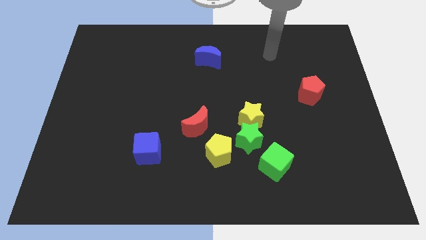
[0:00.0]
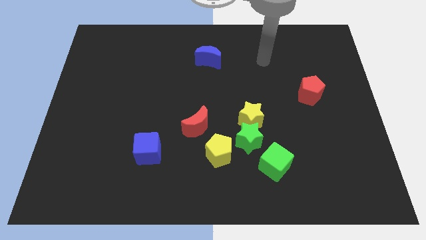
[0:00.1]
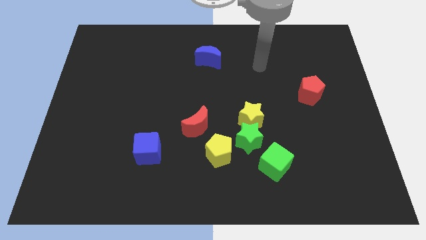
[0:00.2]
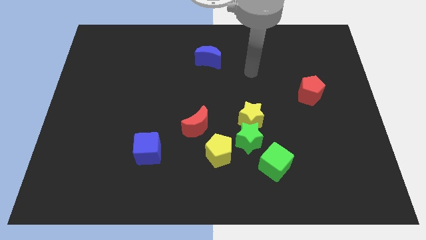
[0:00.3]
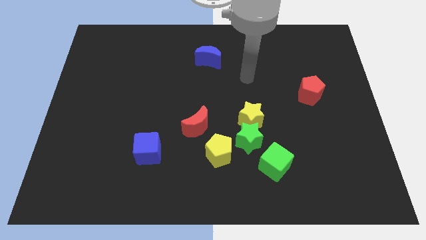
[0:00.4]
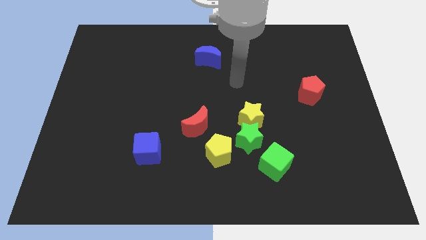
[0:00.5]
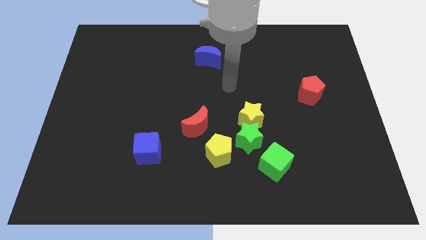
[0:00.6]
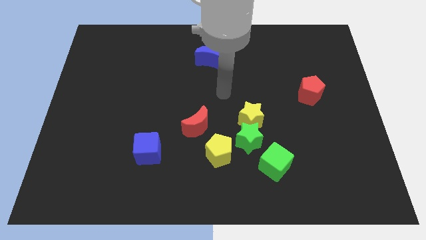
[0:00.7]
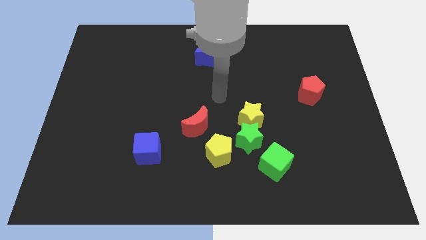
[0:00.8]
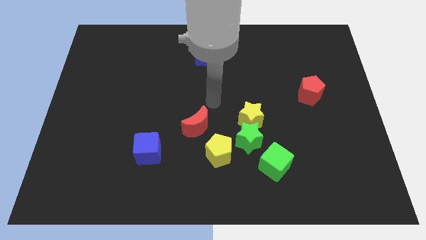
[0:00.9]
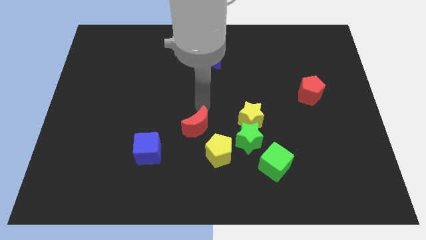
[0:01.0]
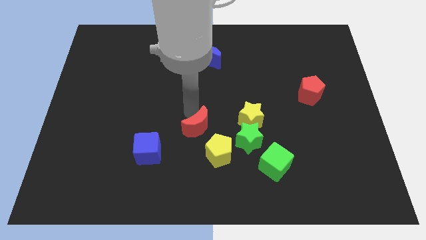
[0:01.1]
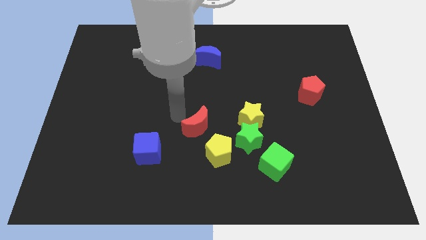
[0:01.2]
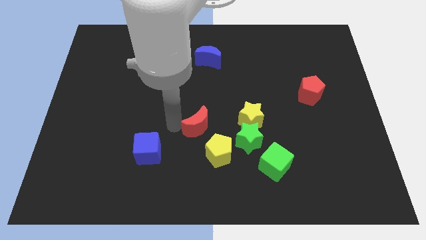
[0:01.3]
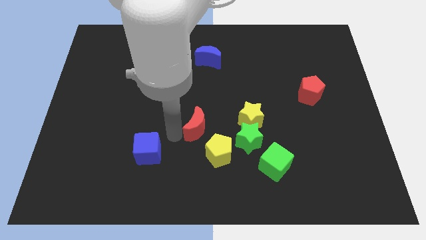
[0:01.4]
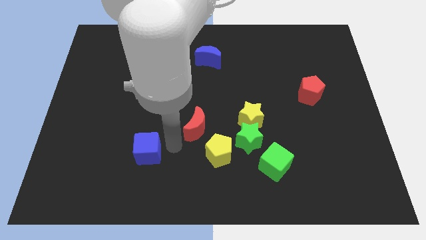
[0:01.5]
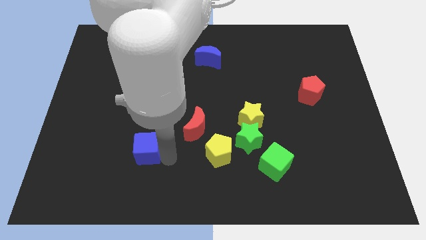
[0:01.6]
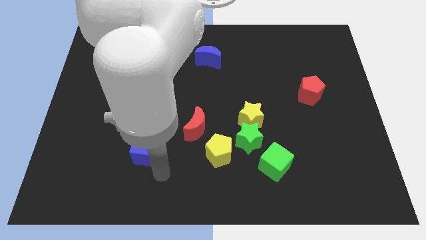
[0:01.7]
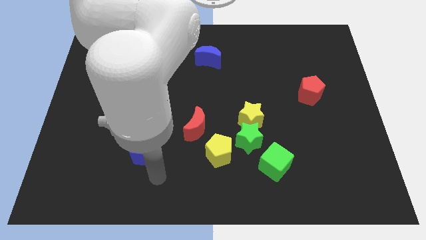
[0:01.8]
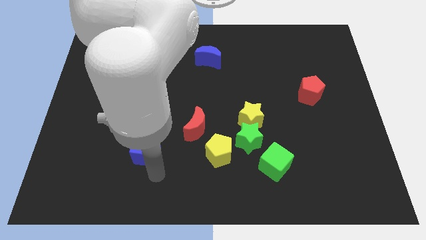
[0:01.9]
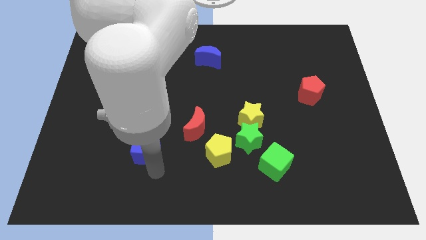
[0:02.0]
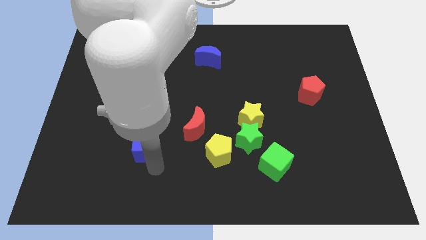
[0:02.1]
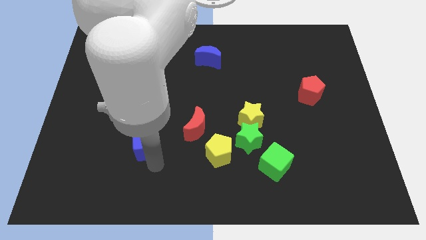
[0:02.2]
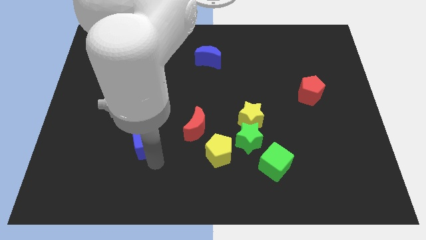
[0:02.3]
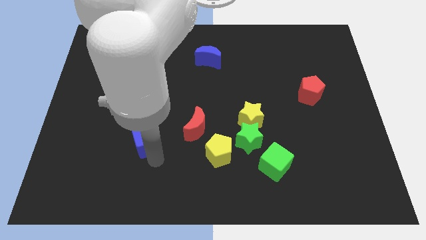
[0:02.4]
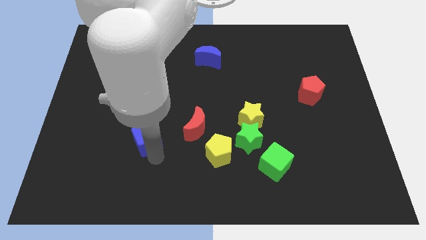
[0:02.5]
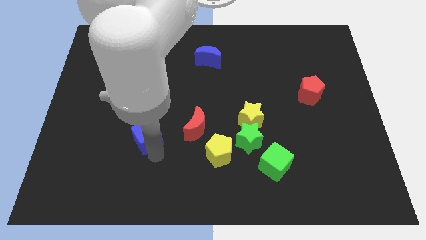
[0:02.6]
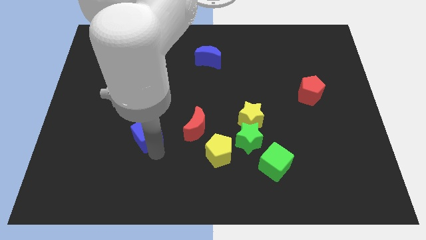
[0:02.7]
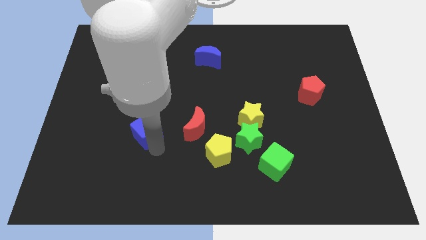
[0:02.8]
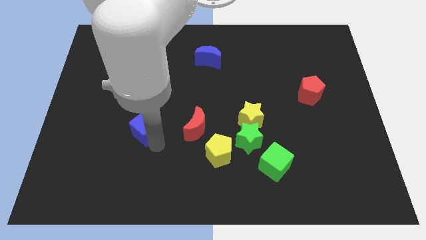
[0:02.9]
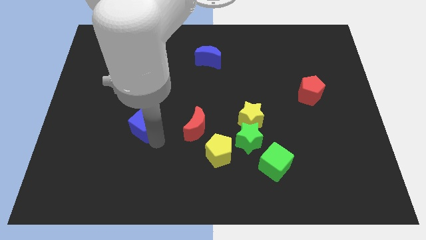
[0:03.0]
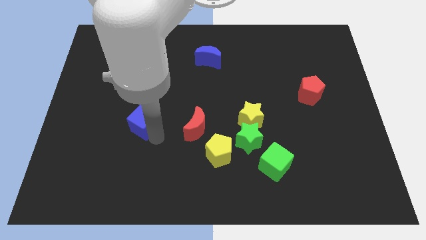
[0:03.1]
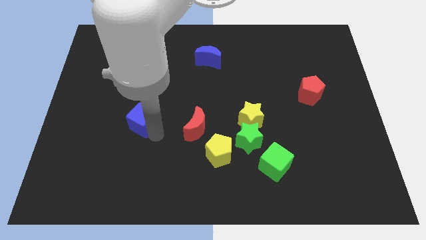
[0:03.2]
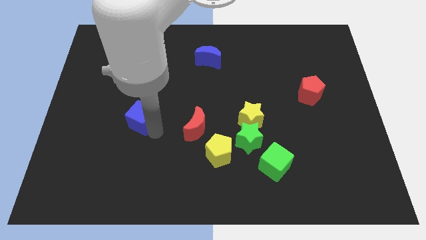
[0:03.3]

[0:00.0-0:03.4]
move the blue cube up and then left somewhat

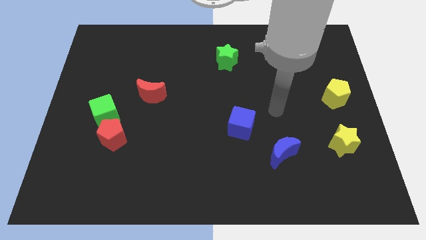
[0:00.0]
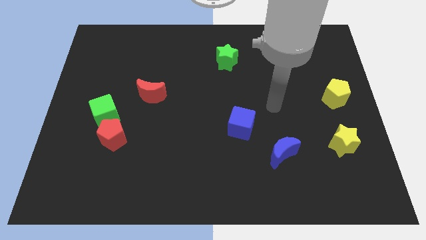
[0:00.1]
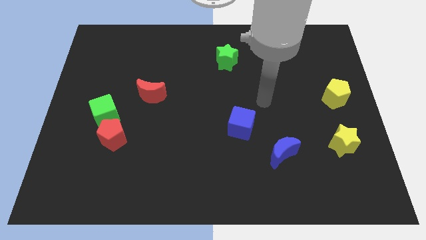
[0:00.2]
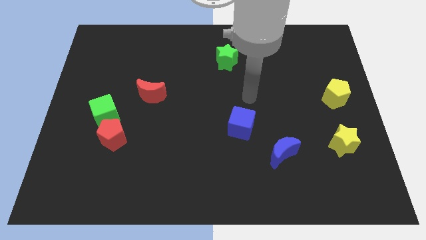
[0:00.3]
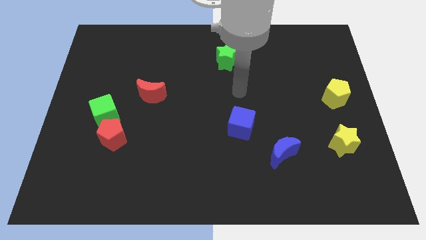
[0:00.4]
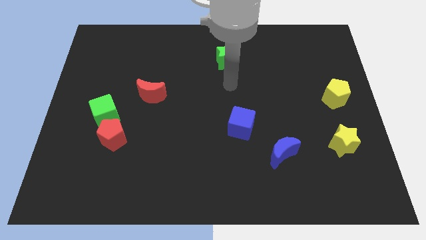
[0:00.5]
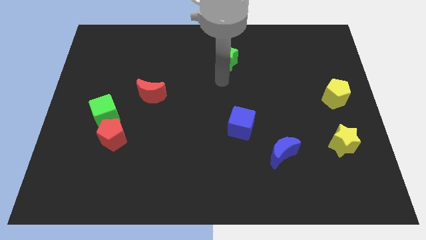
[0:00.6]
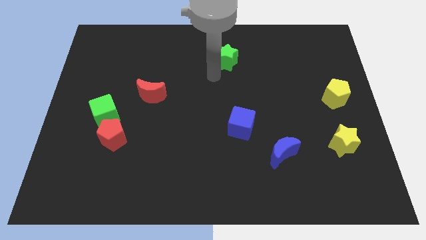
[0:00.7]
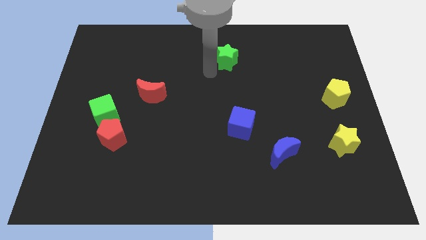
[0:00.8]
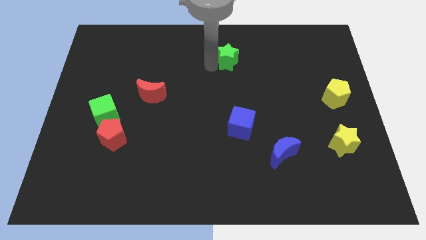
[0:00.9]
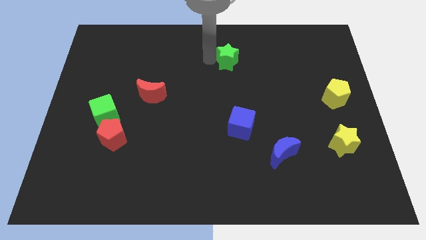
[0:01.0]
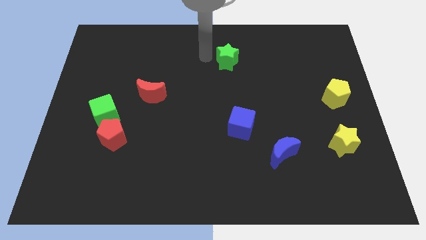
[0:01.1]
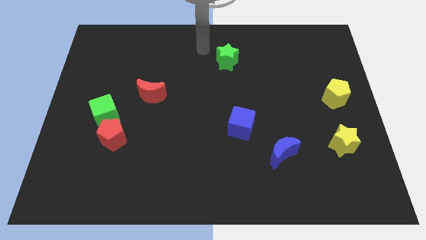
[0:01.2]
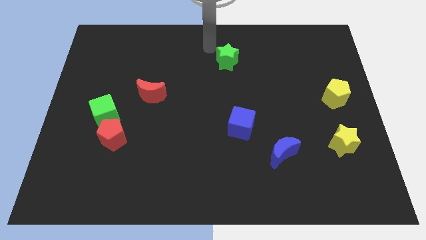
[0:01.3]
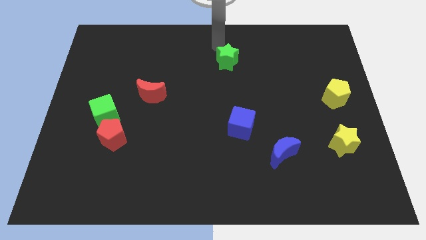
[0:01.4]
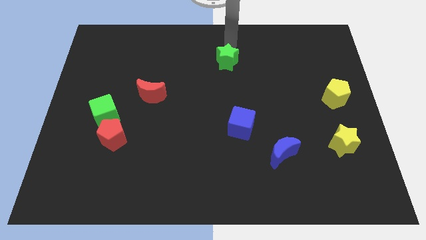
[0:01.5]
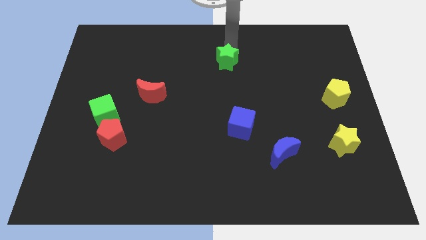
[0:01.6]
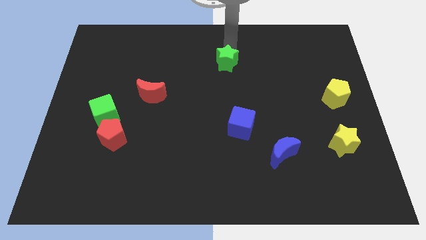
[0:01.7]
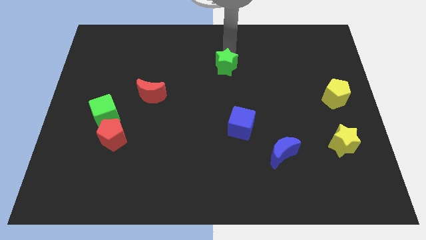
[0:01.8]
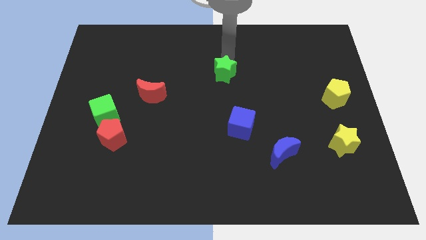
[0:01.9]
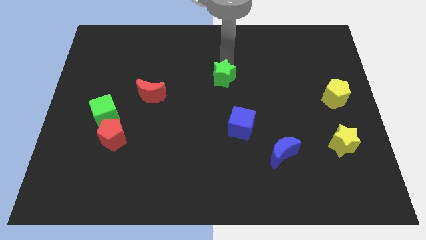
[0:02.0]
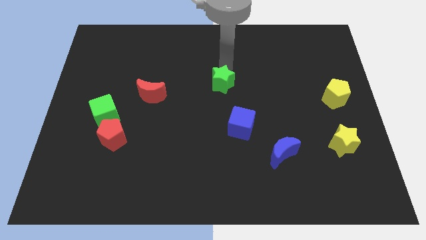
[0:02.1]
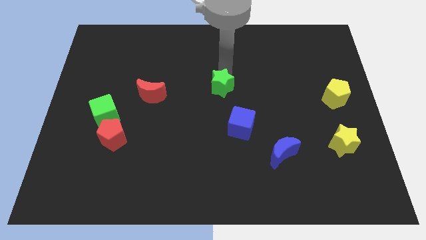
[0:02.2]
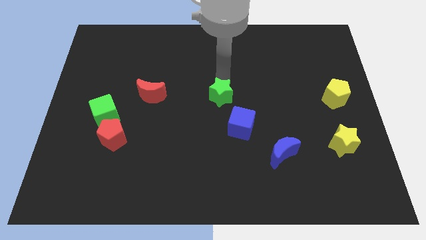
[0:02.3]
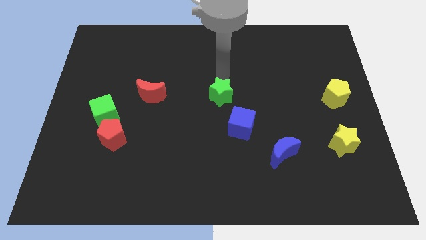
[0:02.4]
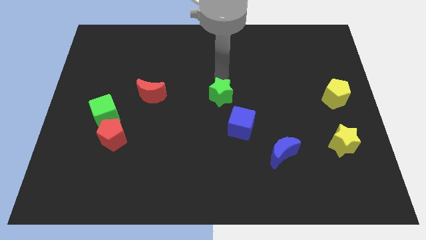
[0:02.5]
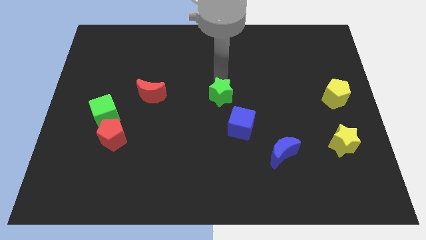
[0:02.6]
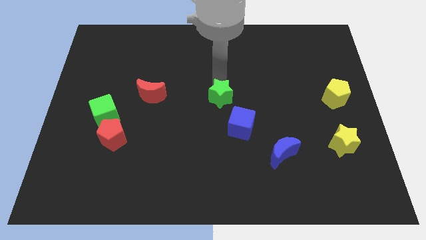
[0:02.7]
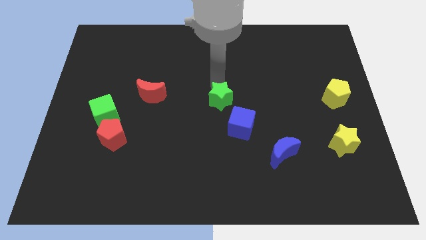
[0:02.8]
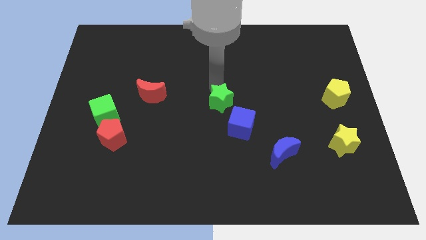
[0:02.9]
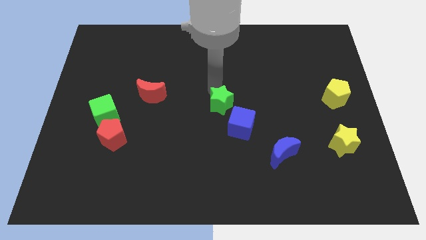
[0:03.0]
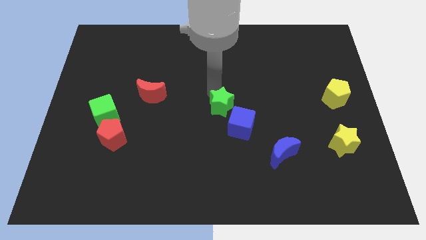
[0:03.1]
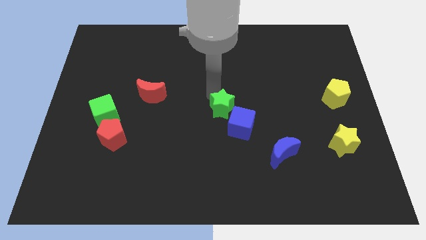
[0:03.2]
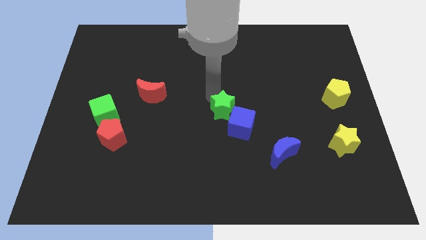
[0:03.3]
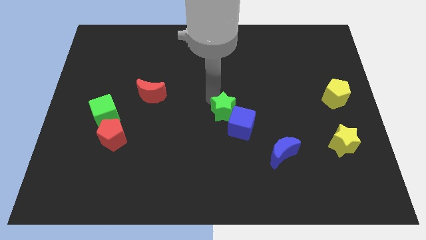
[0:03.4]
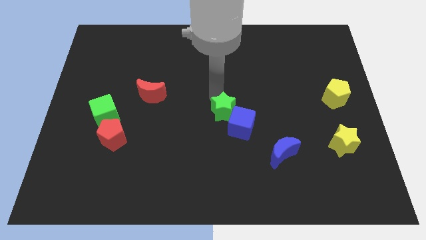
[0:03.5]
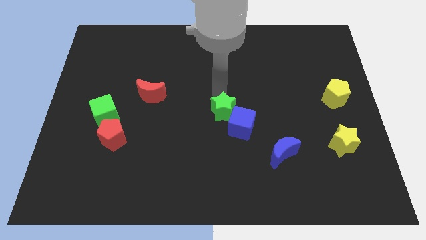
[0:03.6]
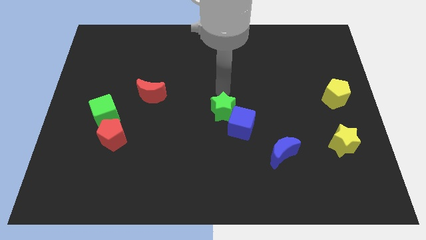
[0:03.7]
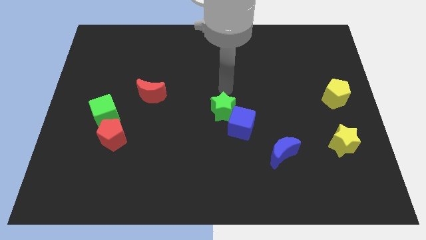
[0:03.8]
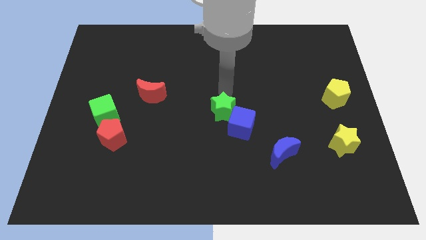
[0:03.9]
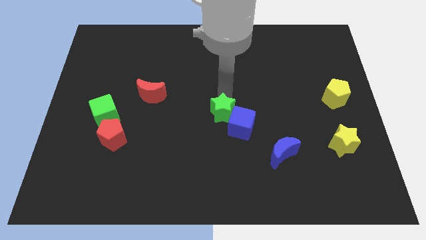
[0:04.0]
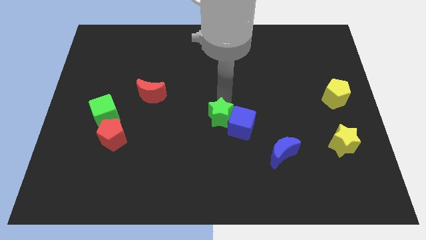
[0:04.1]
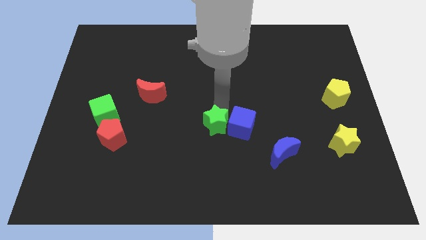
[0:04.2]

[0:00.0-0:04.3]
slide the green star downwards
